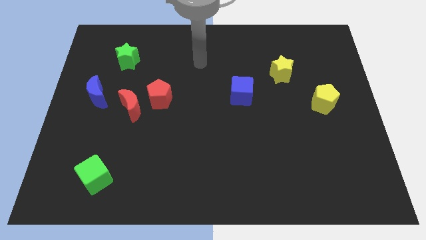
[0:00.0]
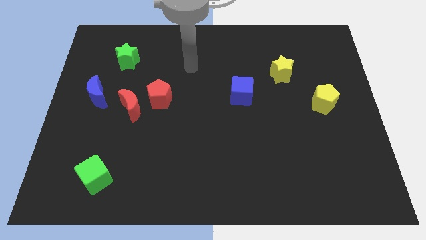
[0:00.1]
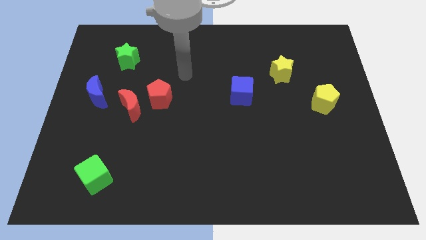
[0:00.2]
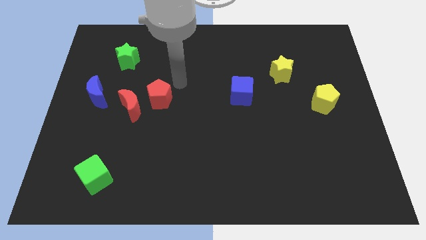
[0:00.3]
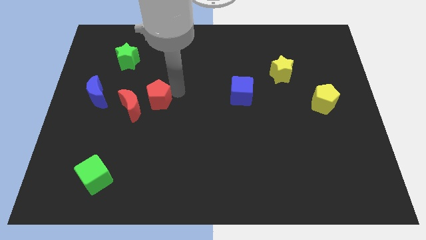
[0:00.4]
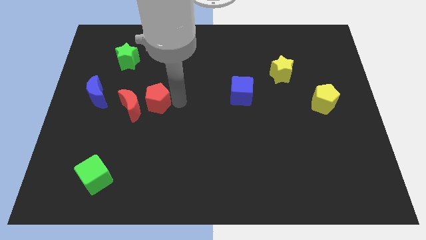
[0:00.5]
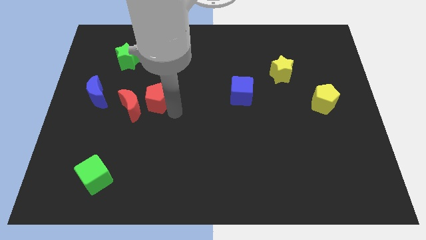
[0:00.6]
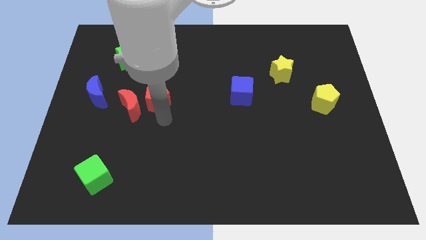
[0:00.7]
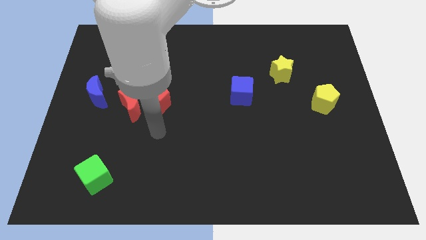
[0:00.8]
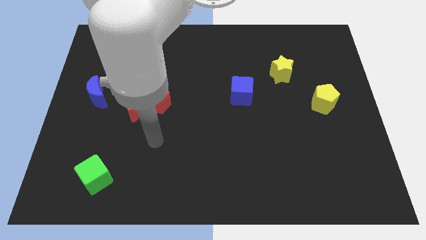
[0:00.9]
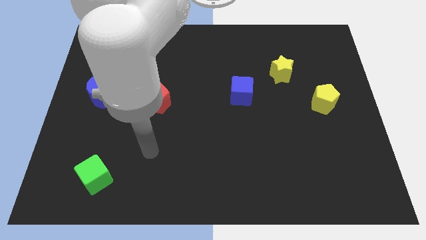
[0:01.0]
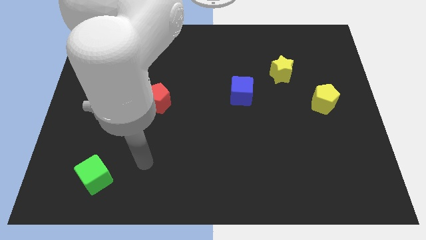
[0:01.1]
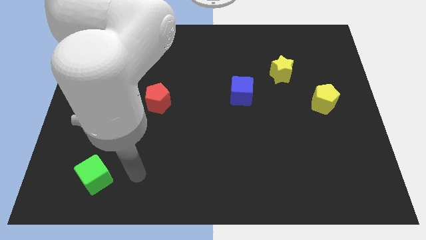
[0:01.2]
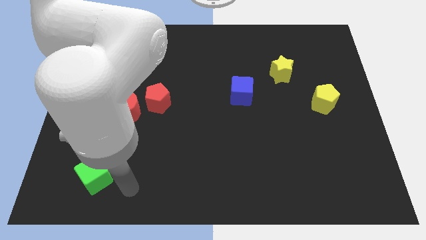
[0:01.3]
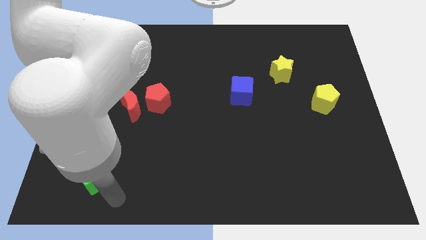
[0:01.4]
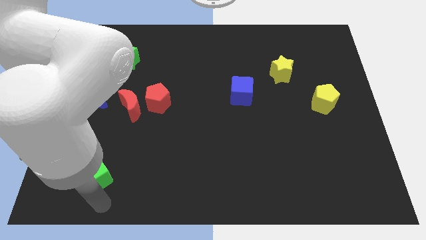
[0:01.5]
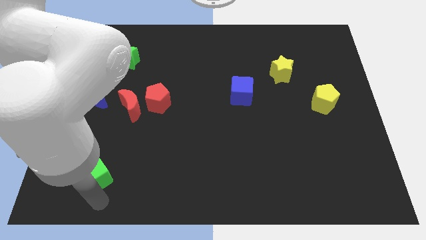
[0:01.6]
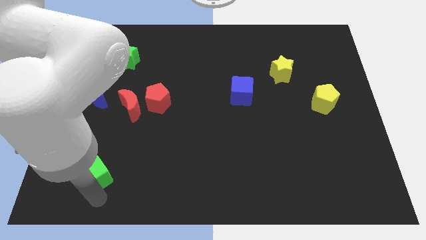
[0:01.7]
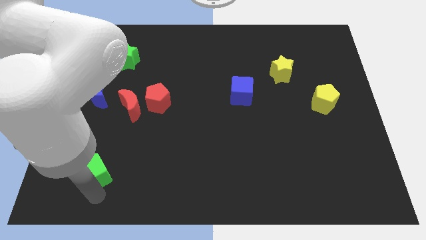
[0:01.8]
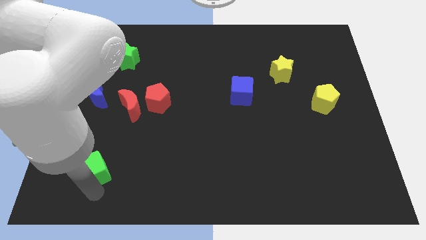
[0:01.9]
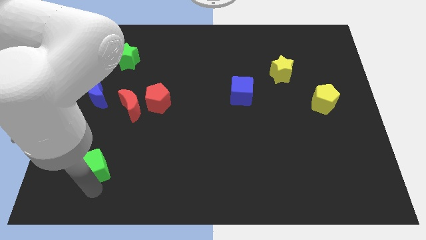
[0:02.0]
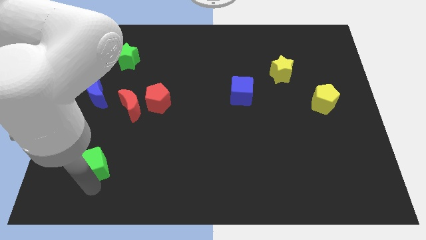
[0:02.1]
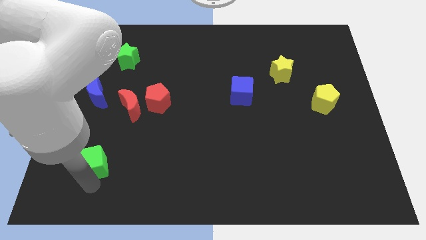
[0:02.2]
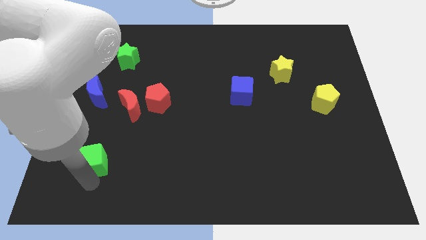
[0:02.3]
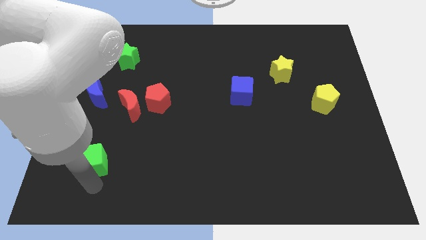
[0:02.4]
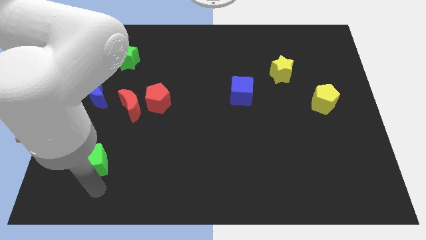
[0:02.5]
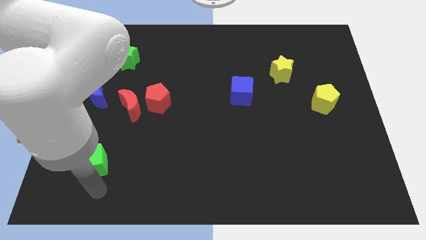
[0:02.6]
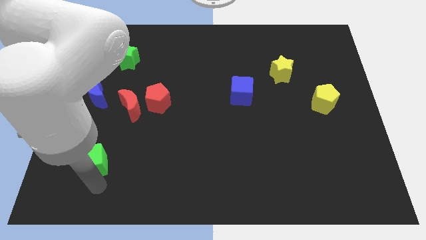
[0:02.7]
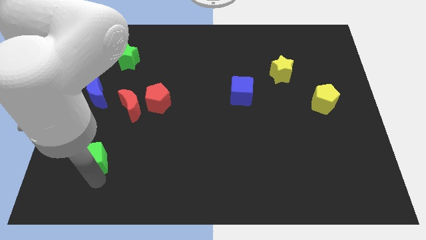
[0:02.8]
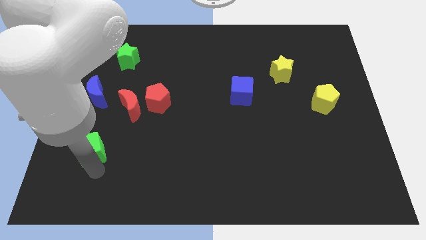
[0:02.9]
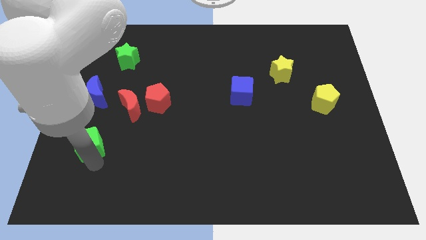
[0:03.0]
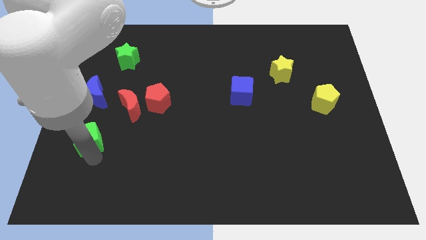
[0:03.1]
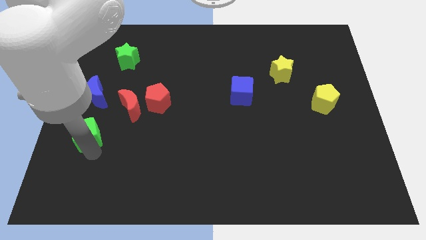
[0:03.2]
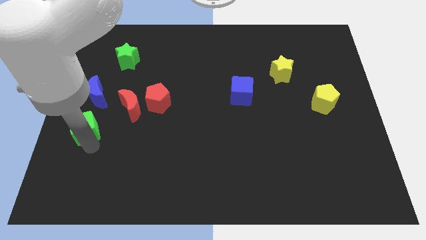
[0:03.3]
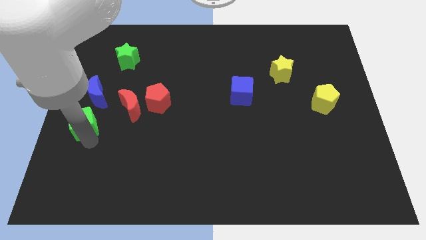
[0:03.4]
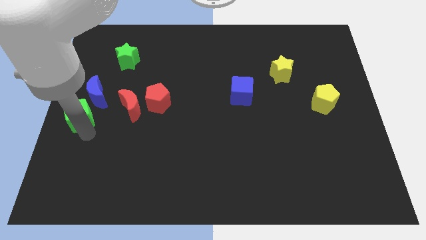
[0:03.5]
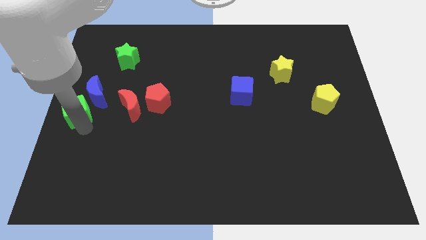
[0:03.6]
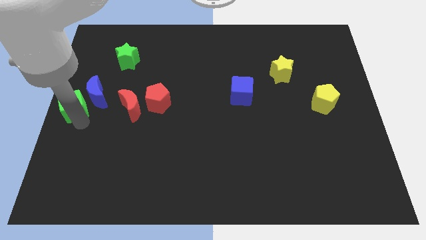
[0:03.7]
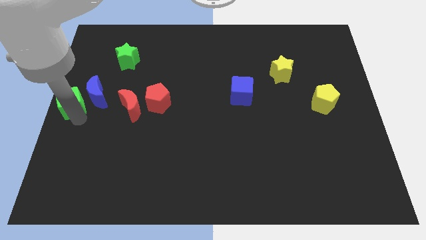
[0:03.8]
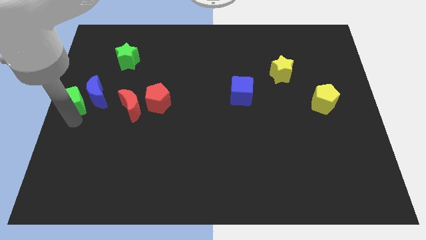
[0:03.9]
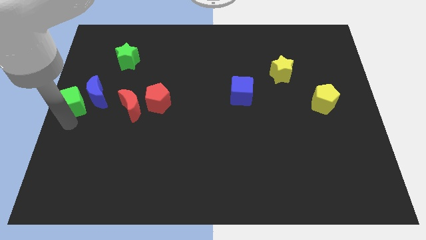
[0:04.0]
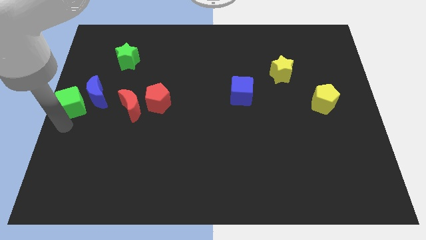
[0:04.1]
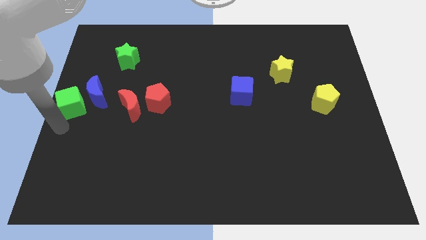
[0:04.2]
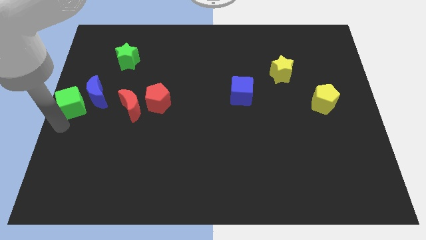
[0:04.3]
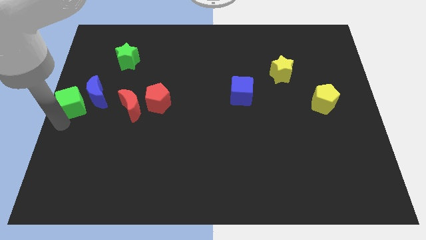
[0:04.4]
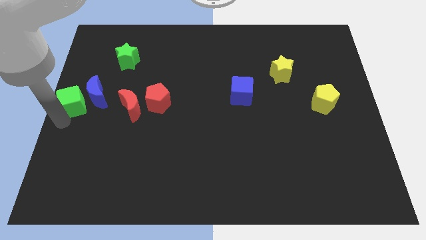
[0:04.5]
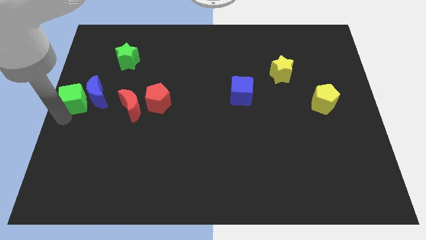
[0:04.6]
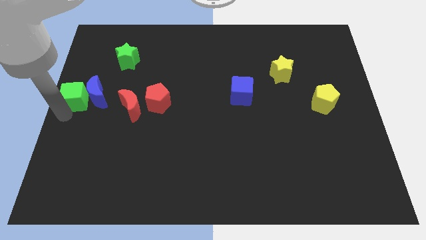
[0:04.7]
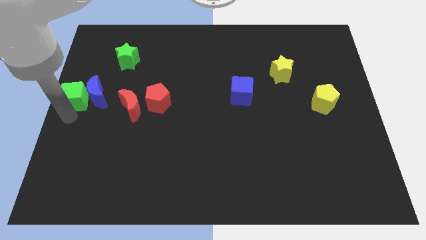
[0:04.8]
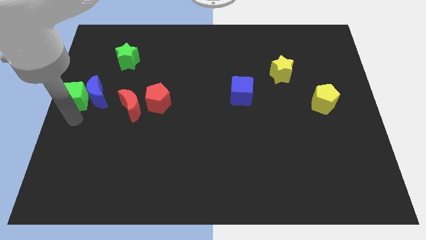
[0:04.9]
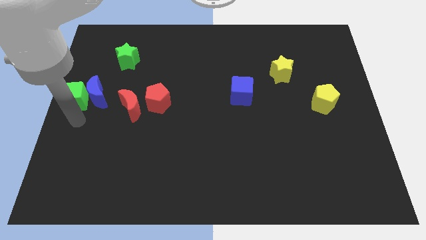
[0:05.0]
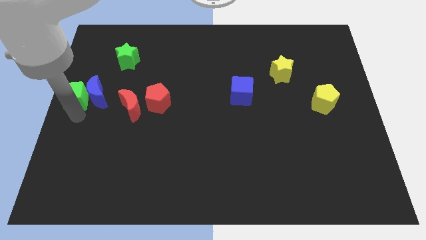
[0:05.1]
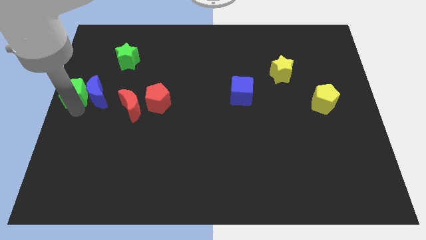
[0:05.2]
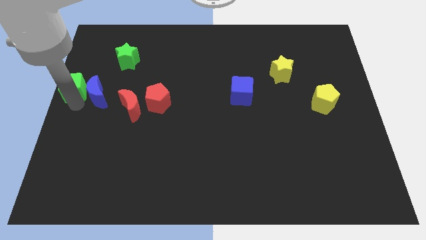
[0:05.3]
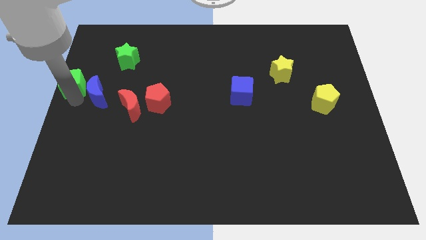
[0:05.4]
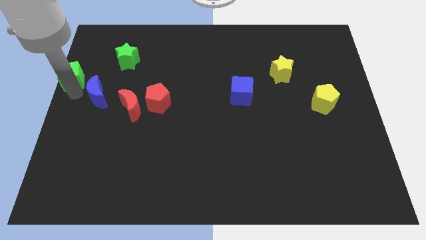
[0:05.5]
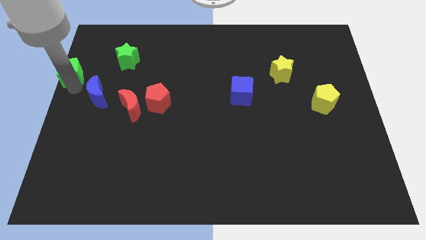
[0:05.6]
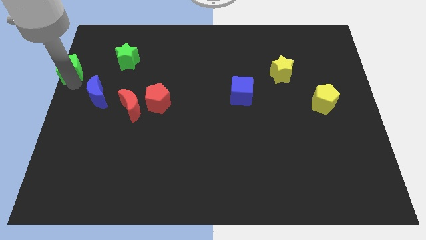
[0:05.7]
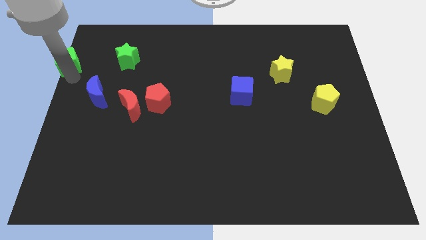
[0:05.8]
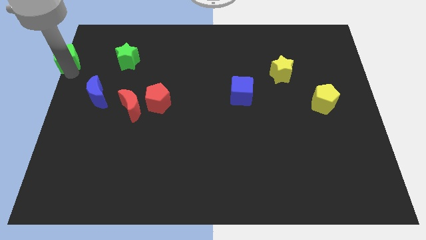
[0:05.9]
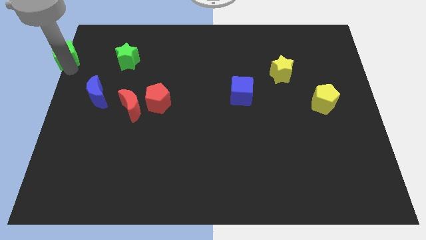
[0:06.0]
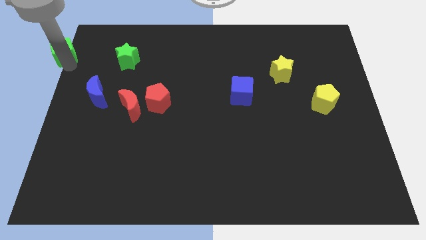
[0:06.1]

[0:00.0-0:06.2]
push the green cube to the top left corner

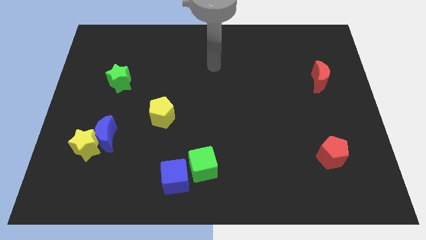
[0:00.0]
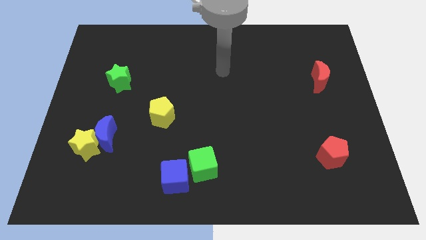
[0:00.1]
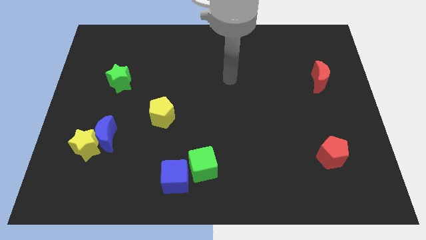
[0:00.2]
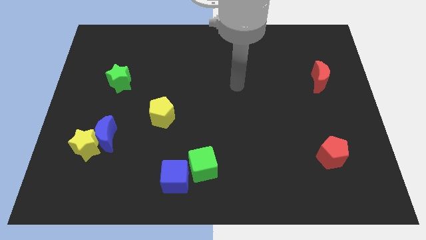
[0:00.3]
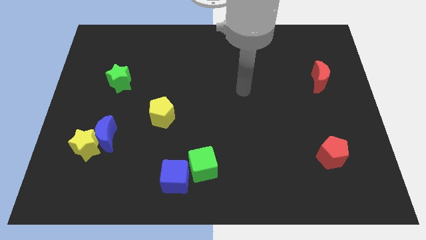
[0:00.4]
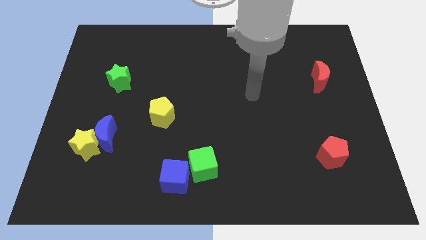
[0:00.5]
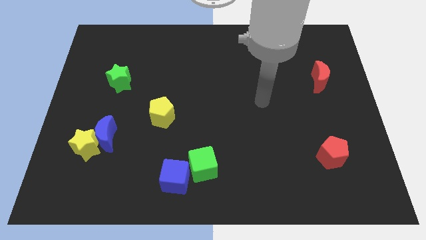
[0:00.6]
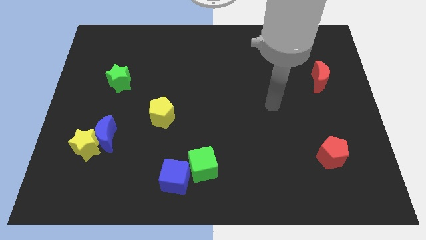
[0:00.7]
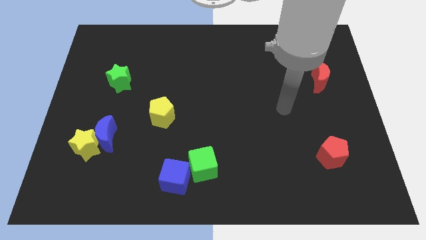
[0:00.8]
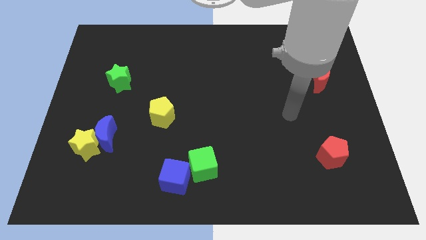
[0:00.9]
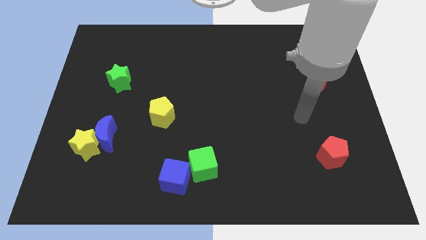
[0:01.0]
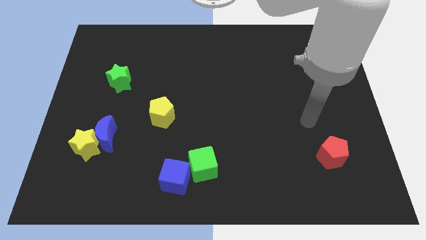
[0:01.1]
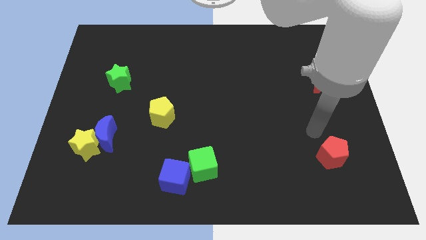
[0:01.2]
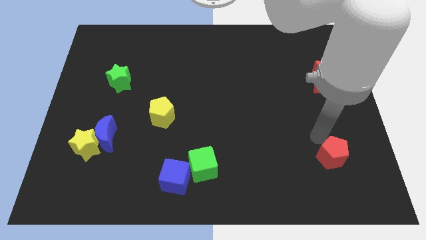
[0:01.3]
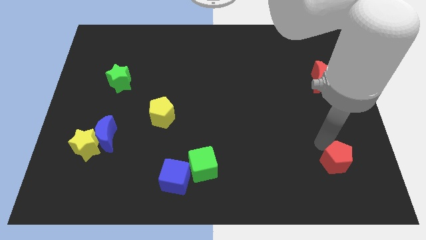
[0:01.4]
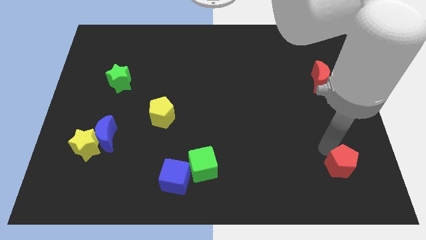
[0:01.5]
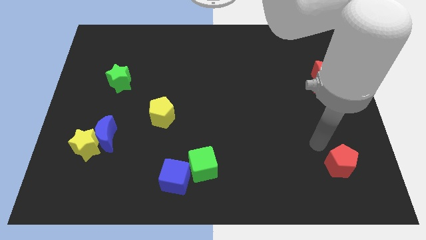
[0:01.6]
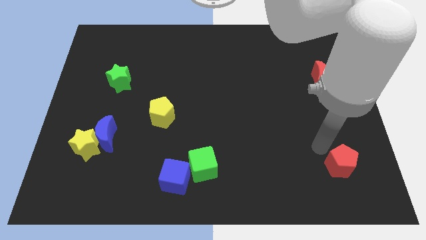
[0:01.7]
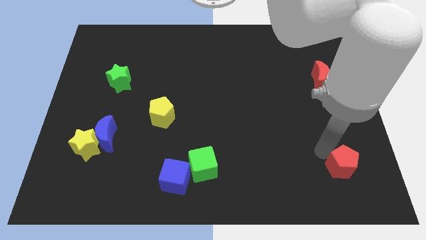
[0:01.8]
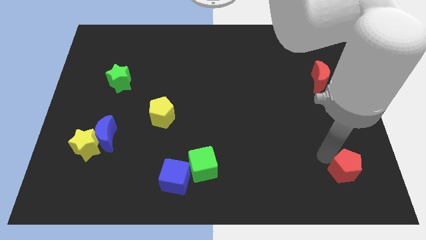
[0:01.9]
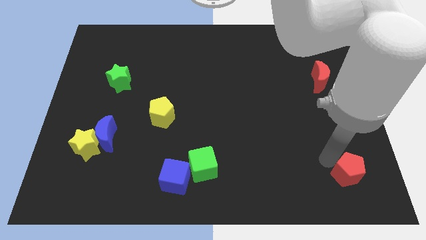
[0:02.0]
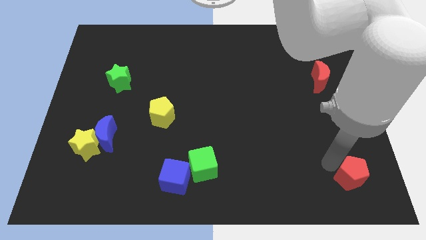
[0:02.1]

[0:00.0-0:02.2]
put the red pentagon to the lower right corner
